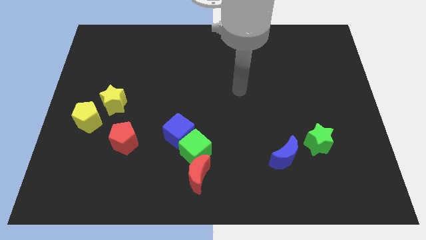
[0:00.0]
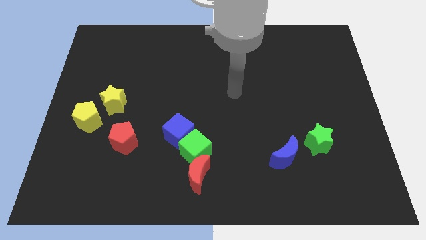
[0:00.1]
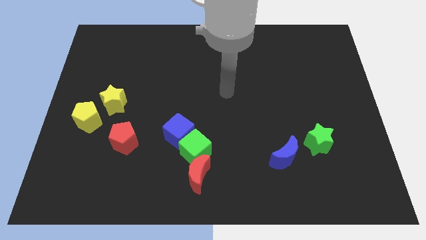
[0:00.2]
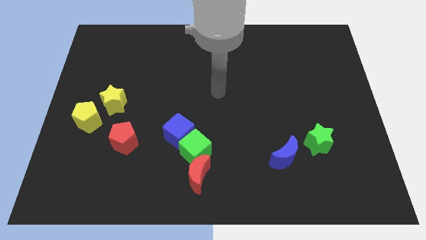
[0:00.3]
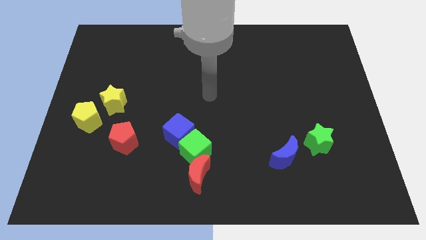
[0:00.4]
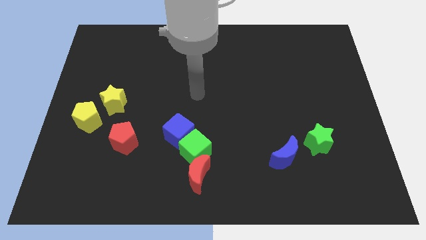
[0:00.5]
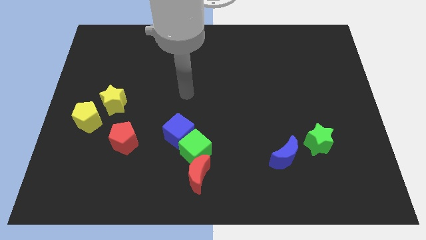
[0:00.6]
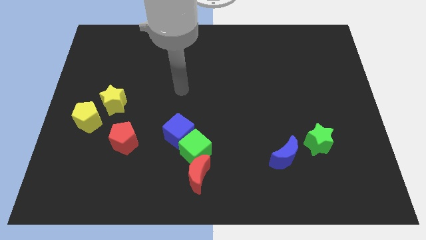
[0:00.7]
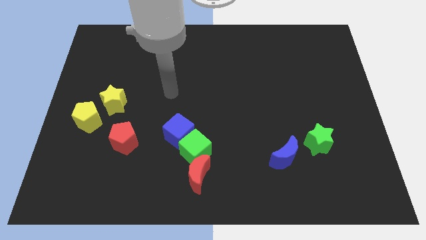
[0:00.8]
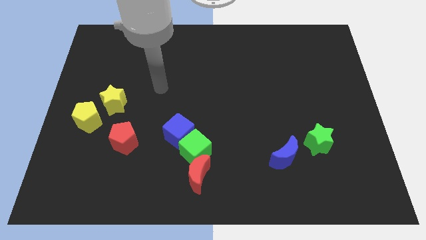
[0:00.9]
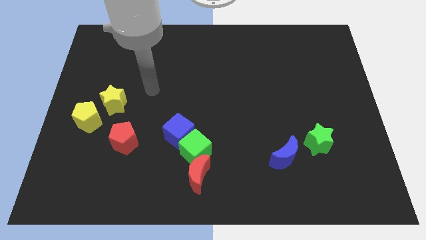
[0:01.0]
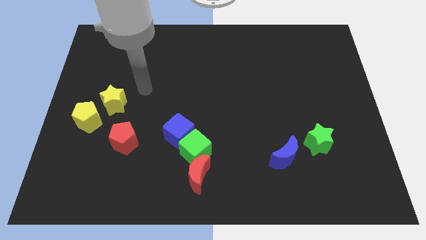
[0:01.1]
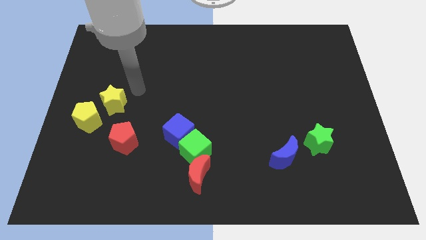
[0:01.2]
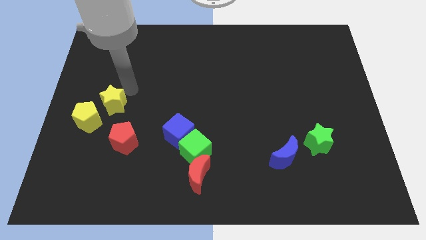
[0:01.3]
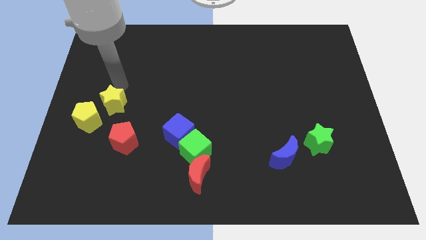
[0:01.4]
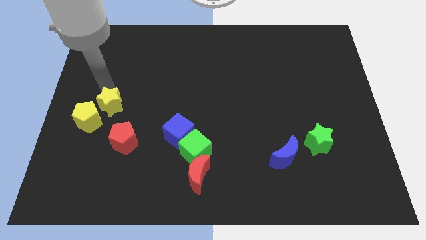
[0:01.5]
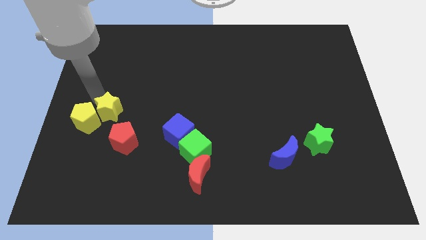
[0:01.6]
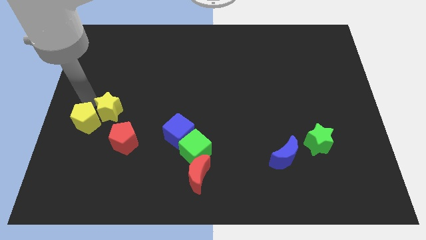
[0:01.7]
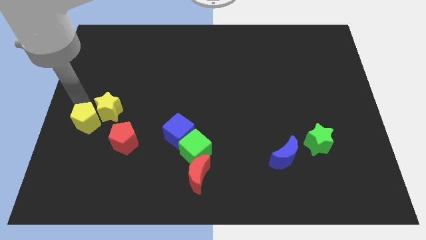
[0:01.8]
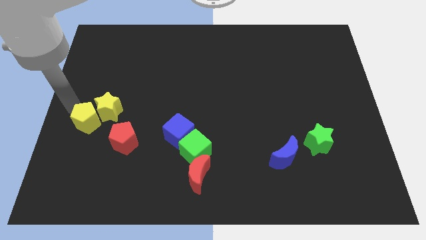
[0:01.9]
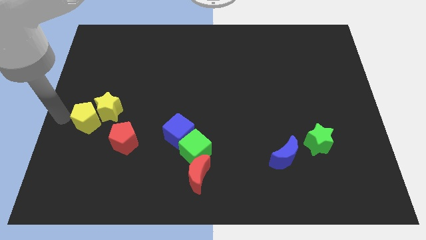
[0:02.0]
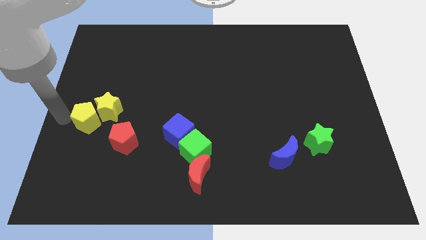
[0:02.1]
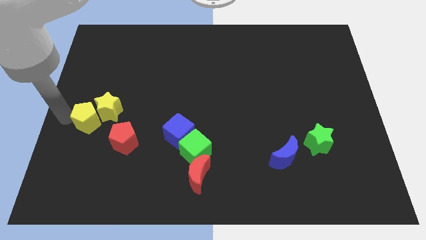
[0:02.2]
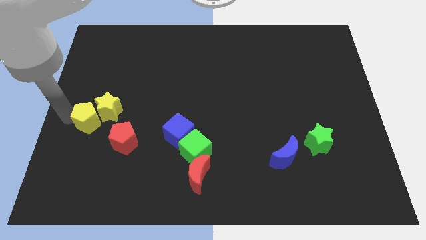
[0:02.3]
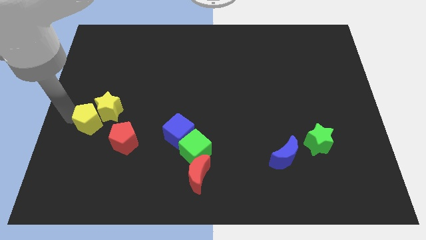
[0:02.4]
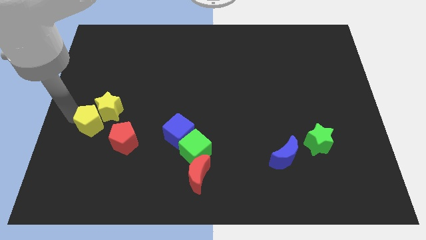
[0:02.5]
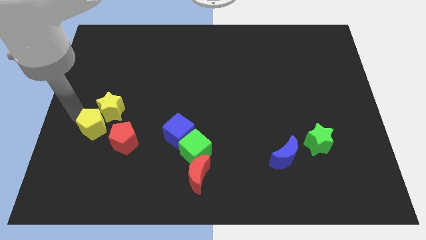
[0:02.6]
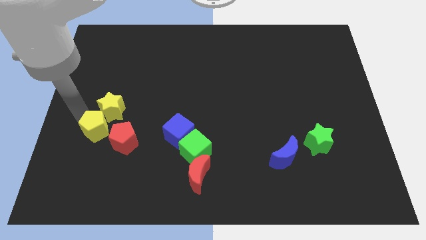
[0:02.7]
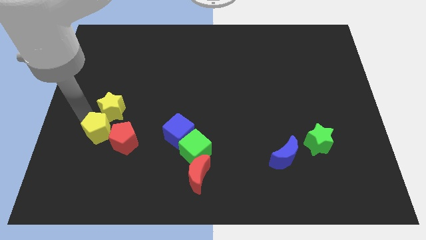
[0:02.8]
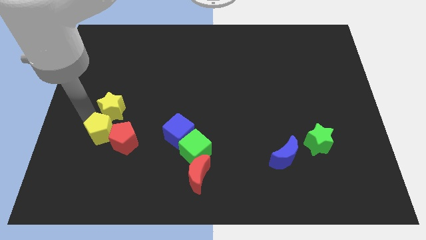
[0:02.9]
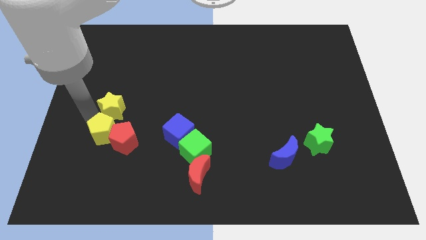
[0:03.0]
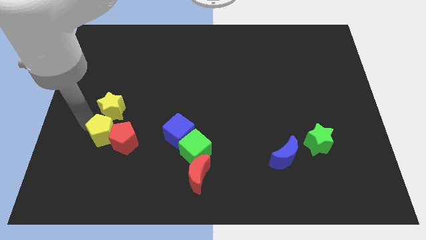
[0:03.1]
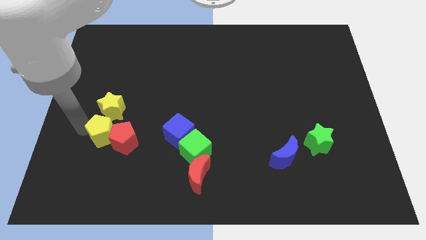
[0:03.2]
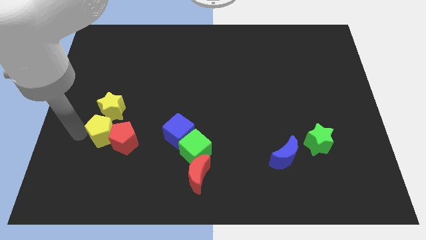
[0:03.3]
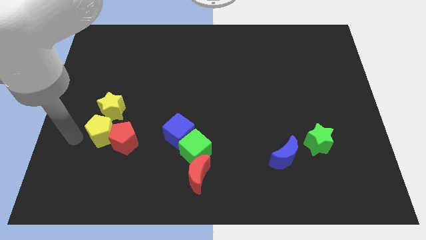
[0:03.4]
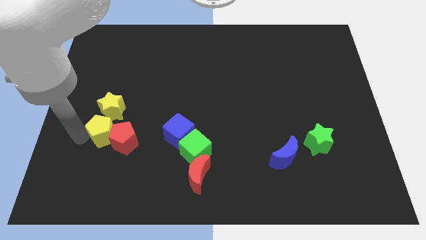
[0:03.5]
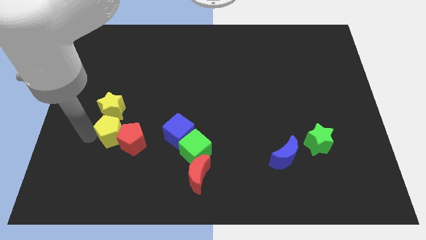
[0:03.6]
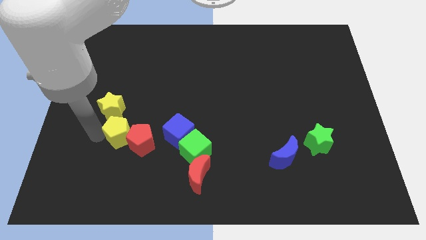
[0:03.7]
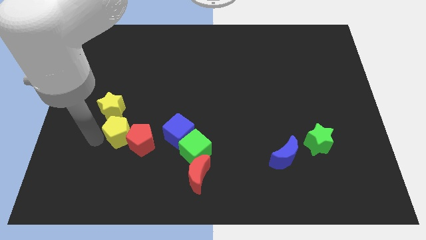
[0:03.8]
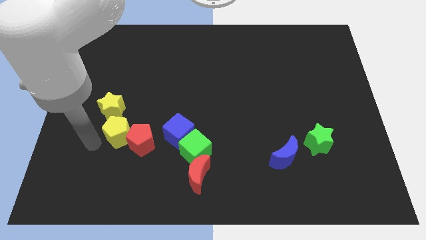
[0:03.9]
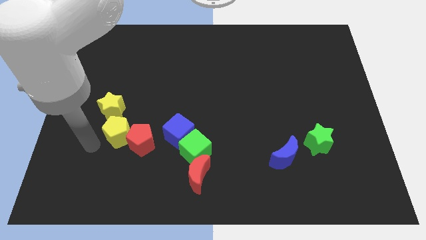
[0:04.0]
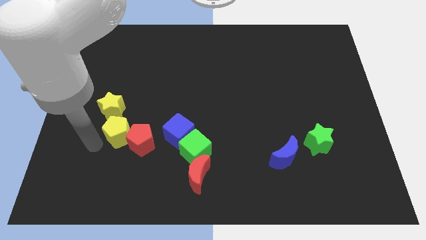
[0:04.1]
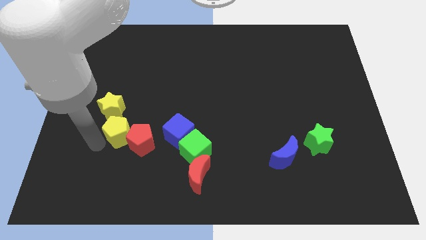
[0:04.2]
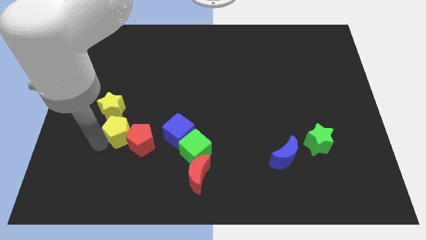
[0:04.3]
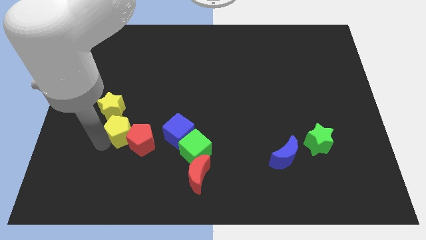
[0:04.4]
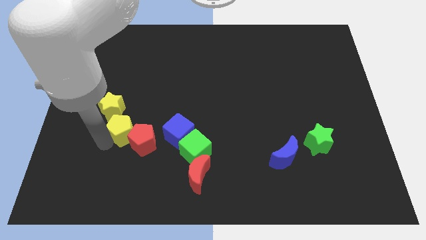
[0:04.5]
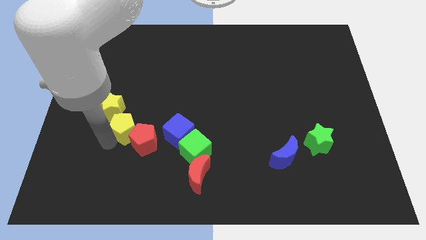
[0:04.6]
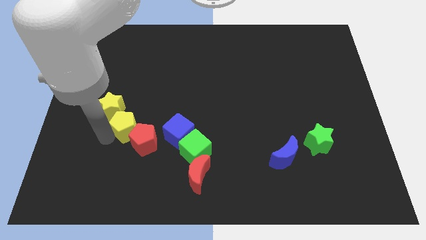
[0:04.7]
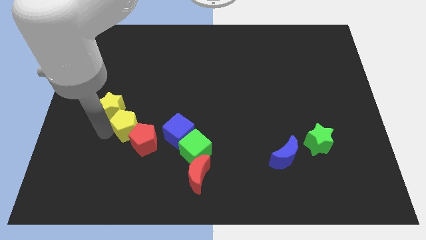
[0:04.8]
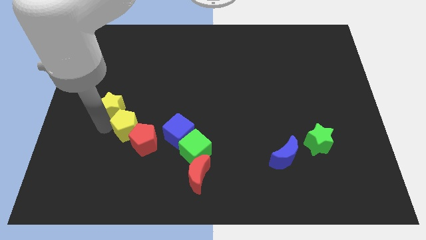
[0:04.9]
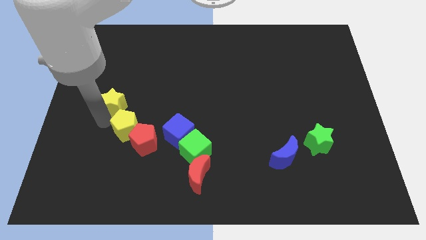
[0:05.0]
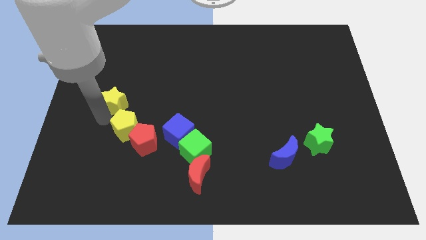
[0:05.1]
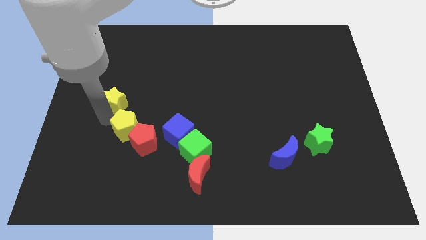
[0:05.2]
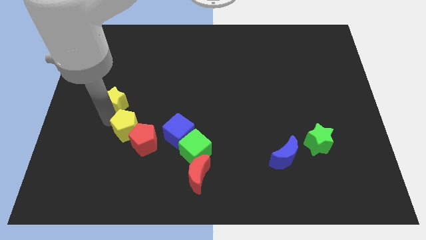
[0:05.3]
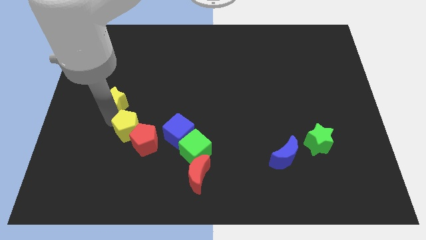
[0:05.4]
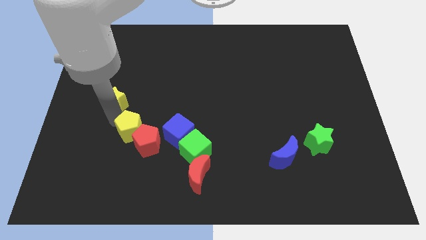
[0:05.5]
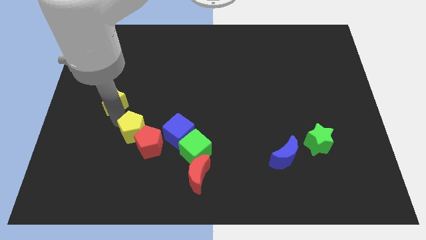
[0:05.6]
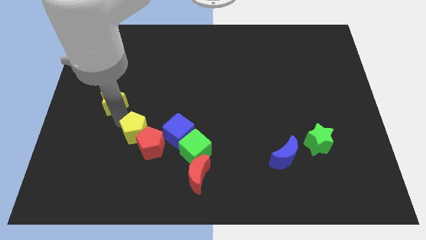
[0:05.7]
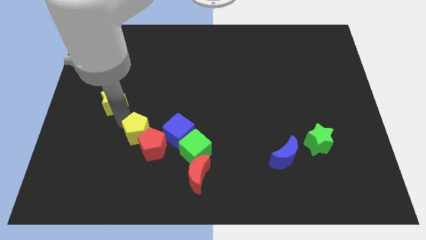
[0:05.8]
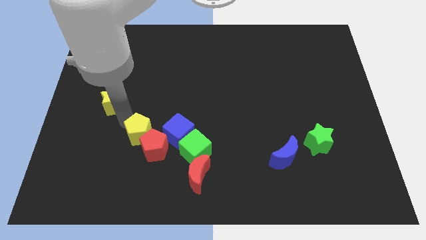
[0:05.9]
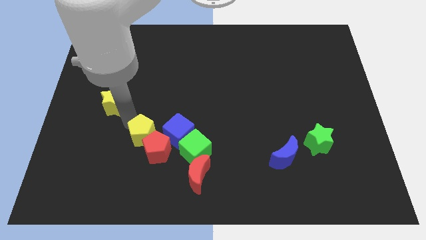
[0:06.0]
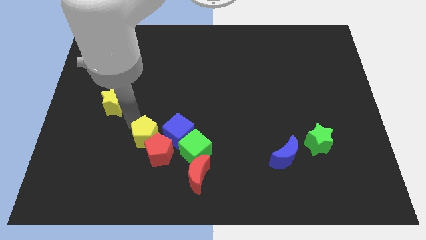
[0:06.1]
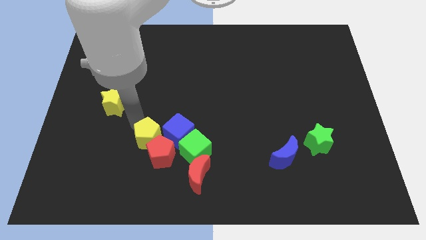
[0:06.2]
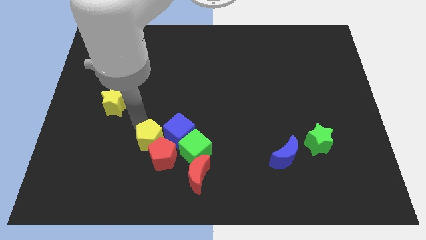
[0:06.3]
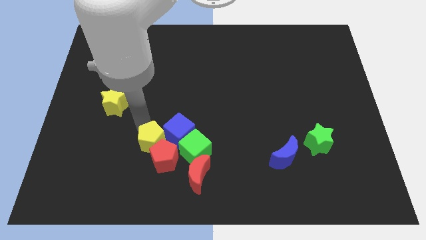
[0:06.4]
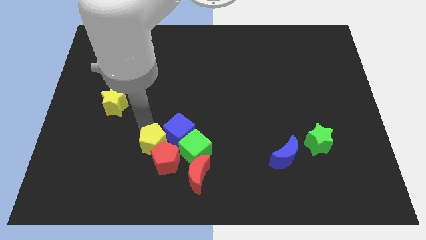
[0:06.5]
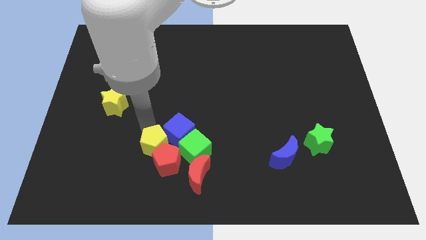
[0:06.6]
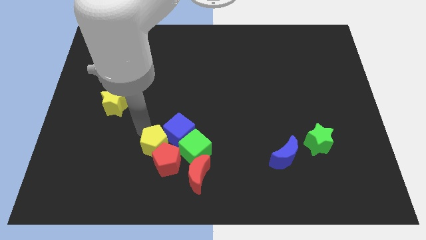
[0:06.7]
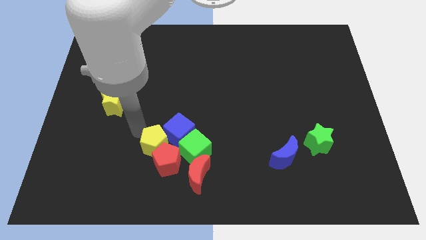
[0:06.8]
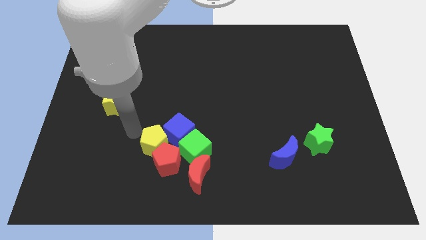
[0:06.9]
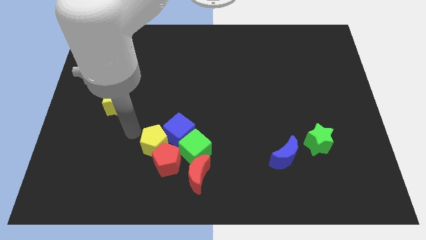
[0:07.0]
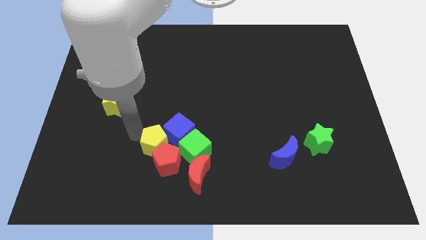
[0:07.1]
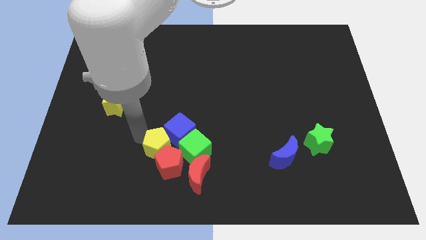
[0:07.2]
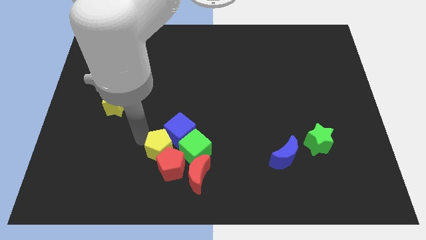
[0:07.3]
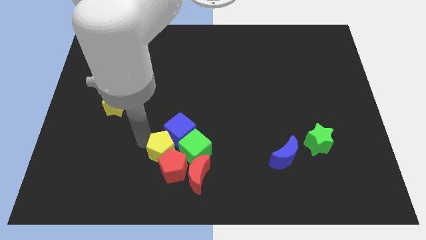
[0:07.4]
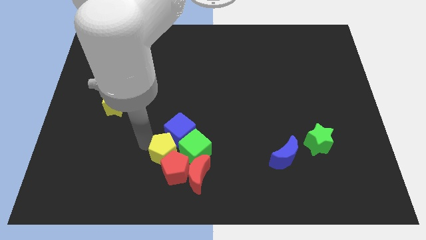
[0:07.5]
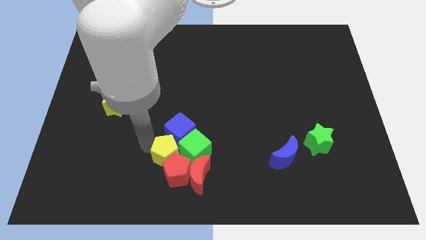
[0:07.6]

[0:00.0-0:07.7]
slide the yellow pentagon close to the green cube

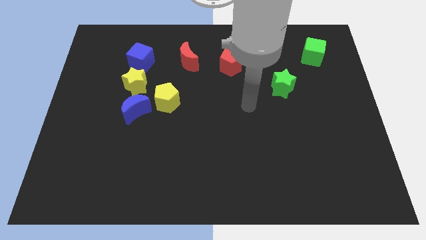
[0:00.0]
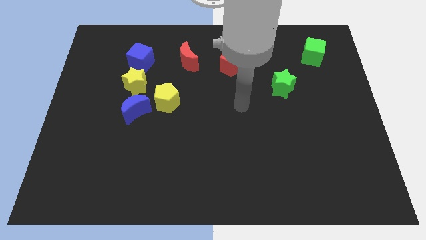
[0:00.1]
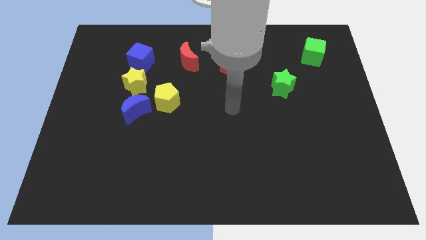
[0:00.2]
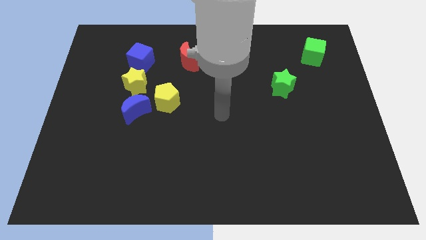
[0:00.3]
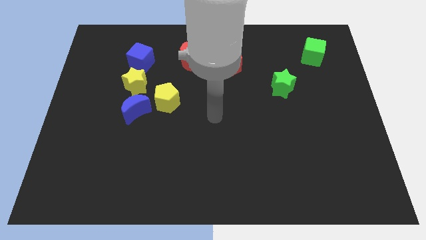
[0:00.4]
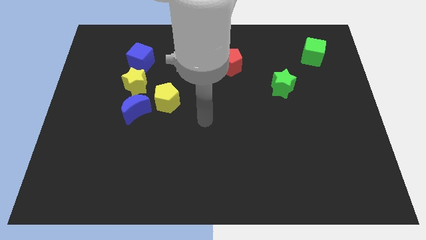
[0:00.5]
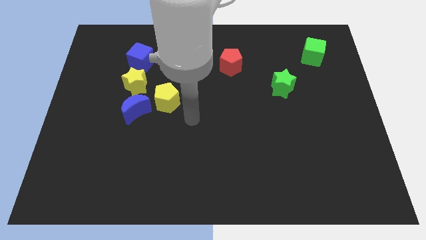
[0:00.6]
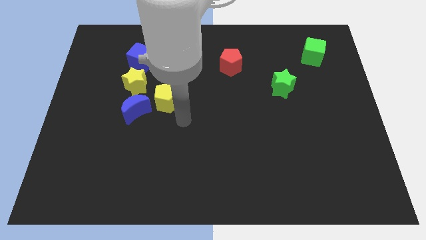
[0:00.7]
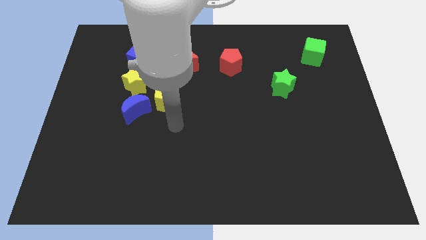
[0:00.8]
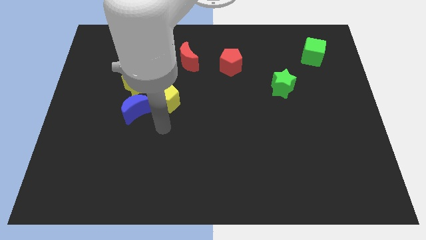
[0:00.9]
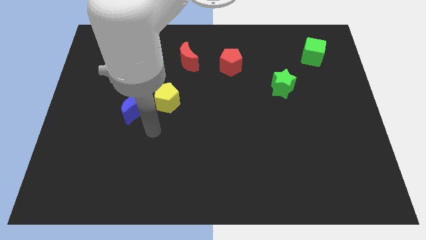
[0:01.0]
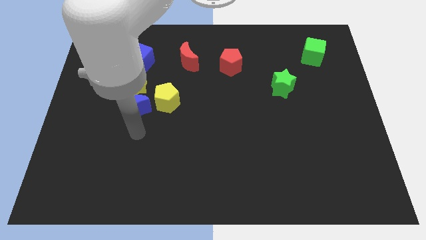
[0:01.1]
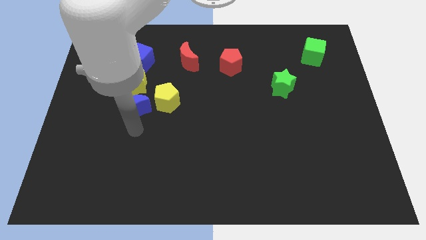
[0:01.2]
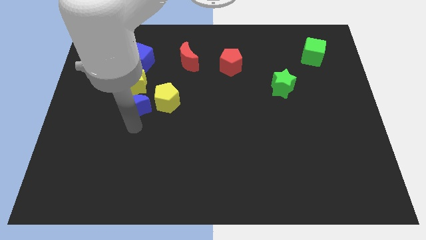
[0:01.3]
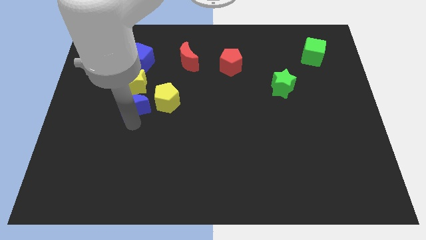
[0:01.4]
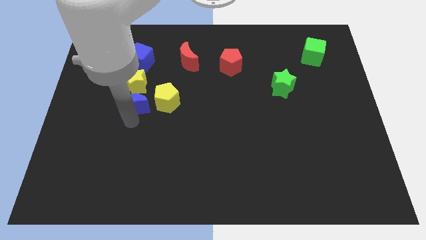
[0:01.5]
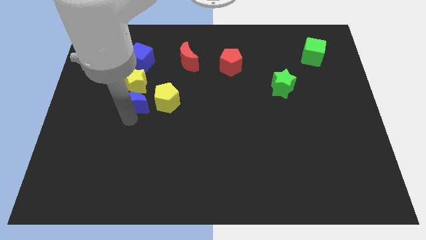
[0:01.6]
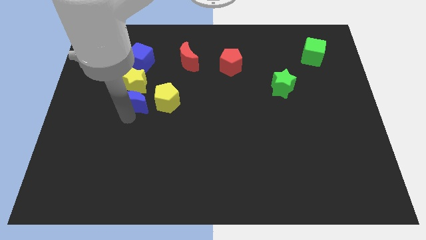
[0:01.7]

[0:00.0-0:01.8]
put the blue moon to the yellow star
